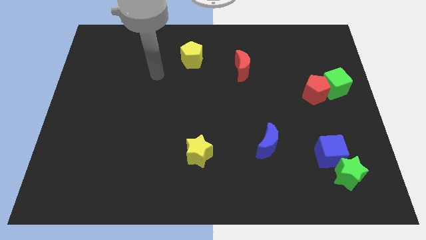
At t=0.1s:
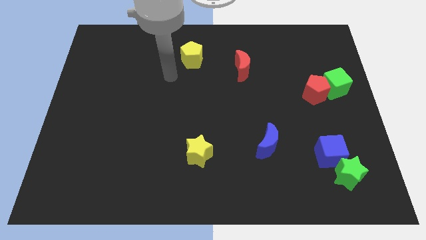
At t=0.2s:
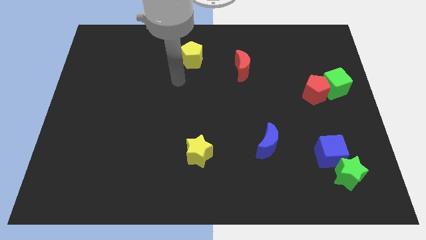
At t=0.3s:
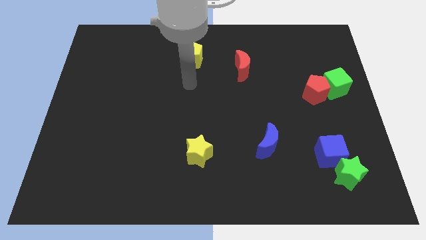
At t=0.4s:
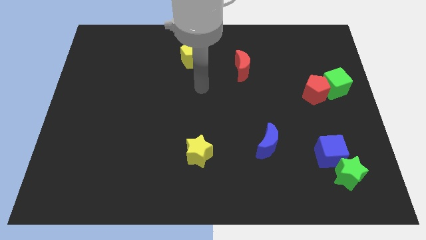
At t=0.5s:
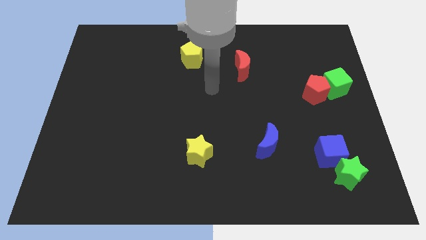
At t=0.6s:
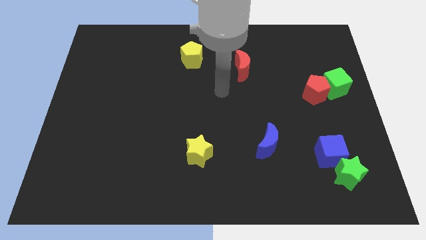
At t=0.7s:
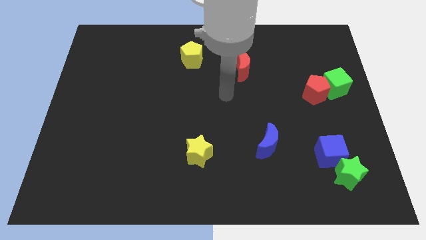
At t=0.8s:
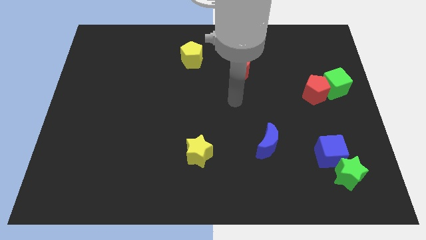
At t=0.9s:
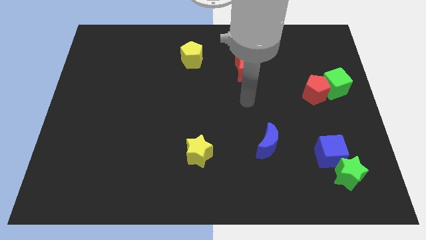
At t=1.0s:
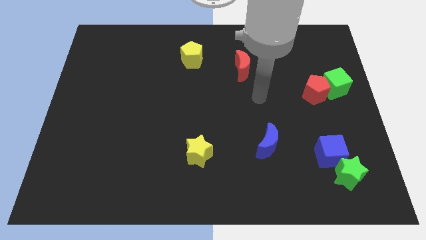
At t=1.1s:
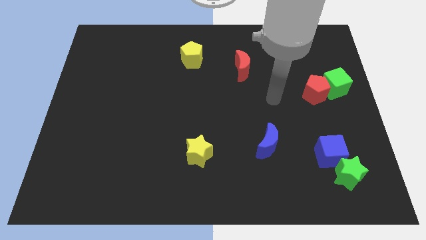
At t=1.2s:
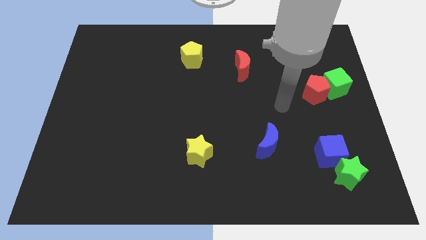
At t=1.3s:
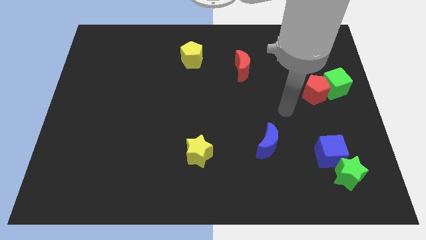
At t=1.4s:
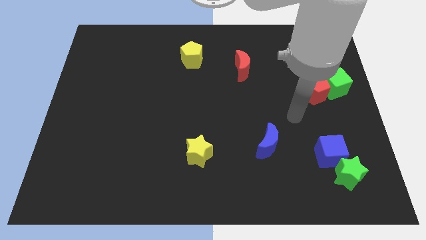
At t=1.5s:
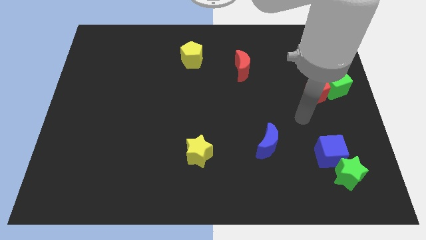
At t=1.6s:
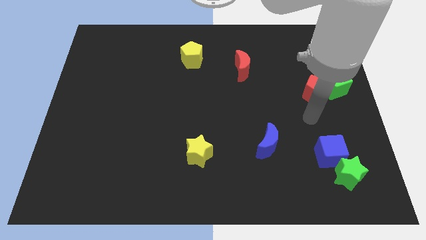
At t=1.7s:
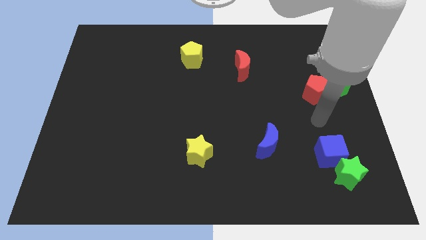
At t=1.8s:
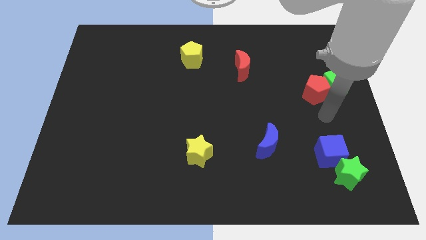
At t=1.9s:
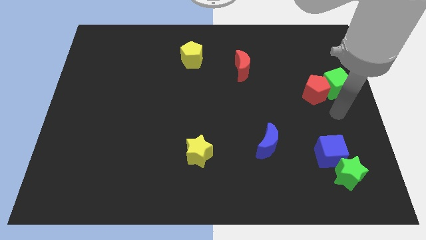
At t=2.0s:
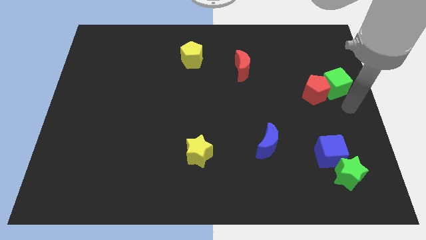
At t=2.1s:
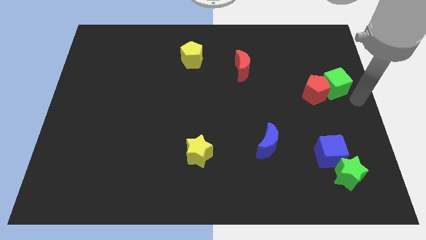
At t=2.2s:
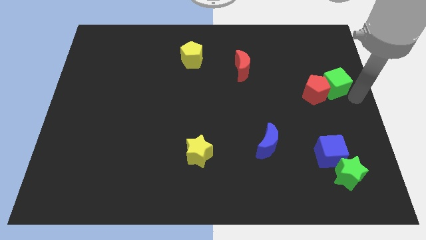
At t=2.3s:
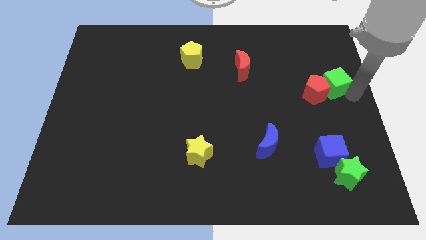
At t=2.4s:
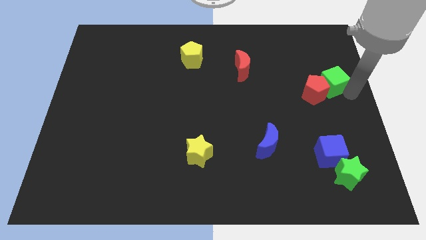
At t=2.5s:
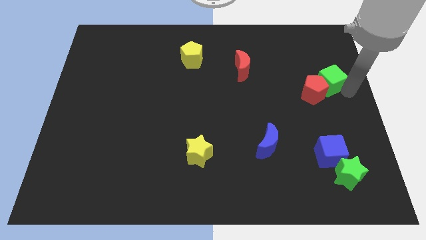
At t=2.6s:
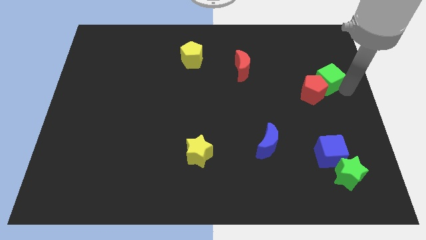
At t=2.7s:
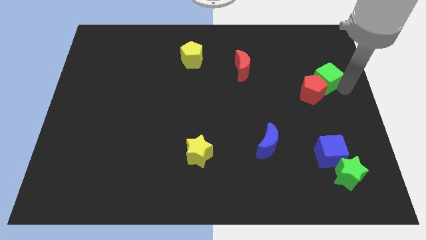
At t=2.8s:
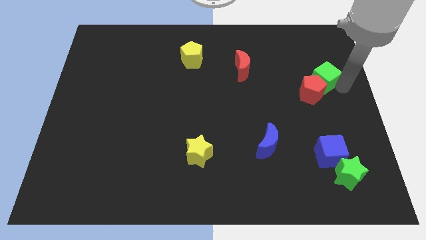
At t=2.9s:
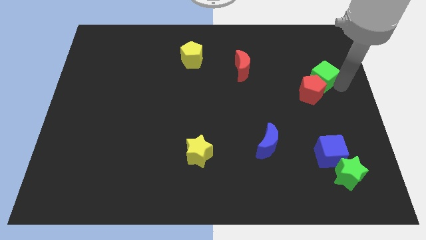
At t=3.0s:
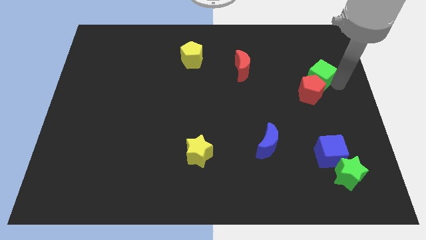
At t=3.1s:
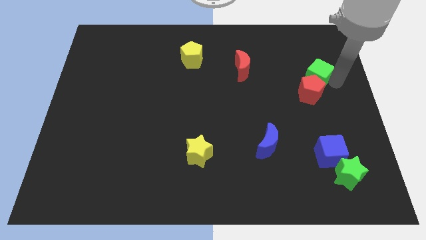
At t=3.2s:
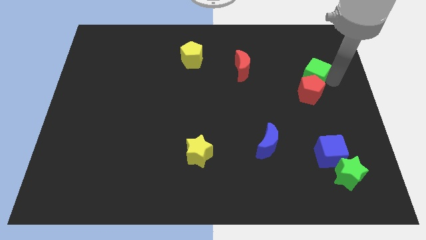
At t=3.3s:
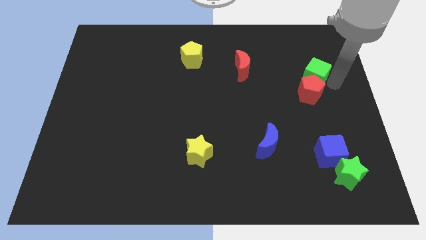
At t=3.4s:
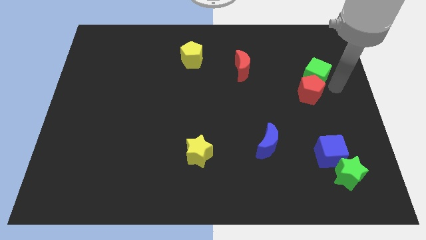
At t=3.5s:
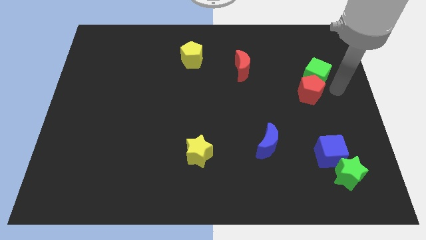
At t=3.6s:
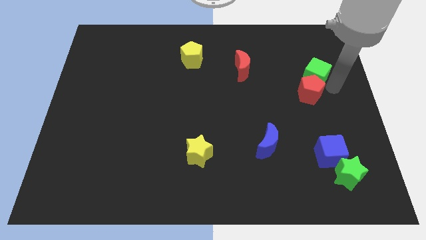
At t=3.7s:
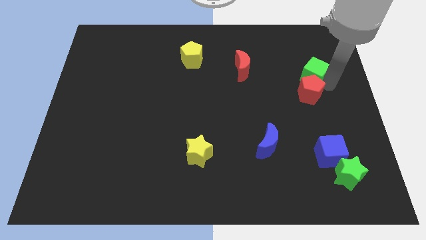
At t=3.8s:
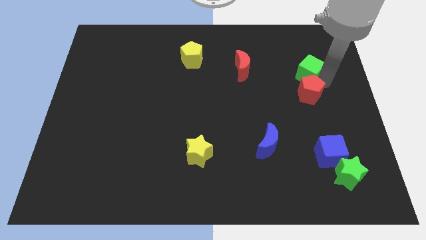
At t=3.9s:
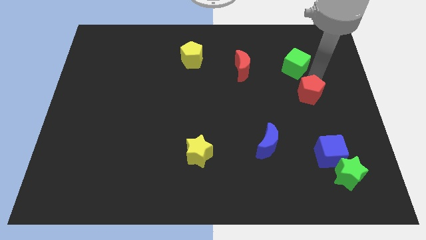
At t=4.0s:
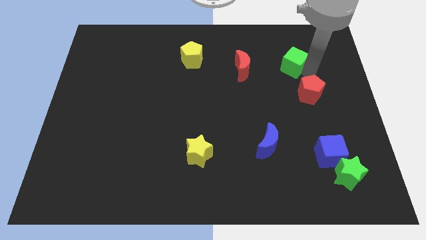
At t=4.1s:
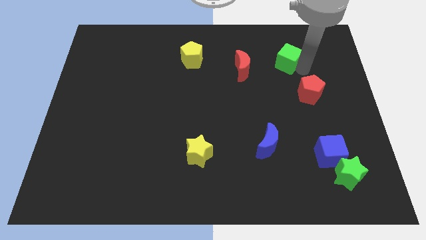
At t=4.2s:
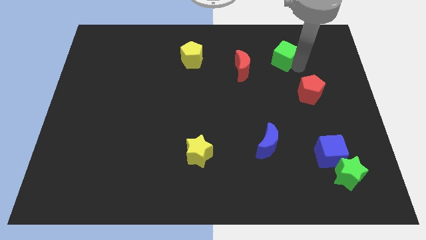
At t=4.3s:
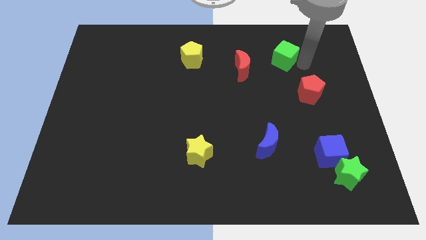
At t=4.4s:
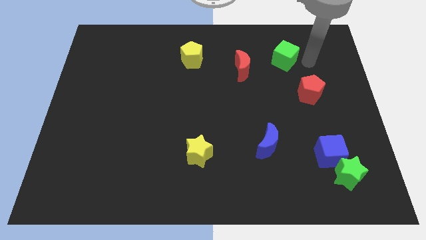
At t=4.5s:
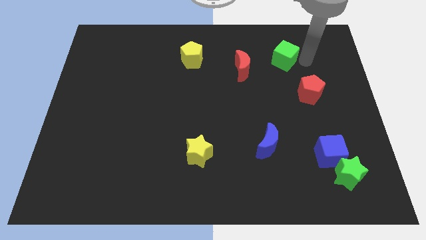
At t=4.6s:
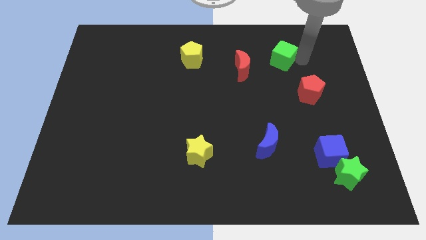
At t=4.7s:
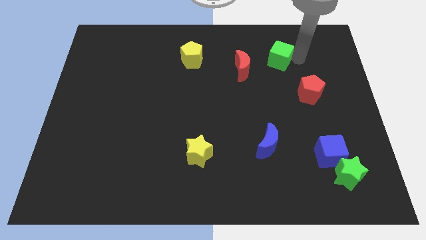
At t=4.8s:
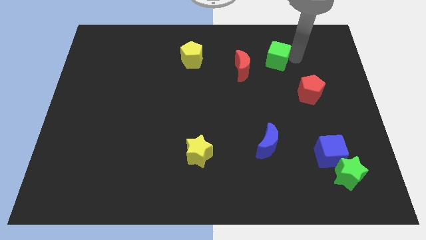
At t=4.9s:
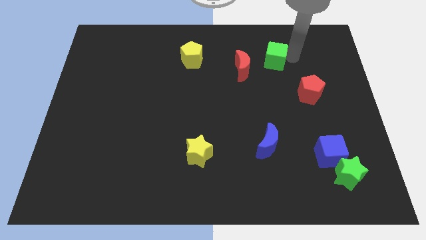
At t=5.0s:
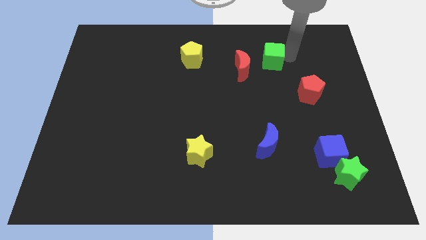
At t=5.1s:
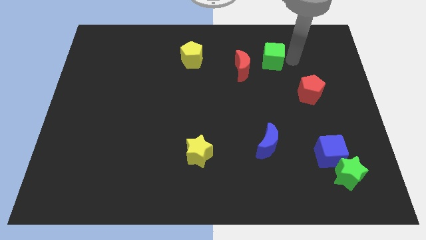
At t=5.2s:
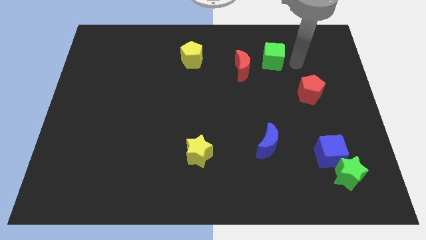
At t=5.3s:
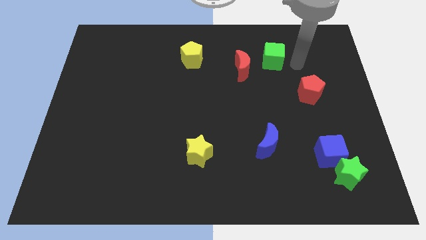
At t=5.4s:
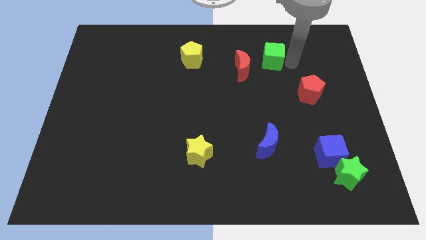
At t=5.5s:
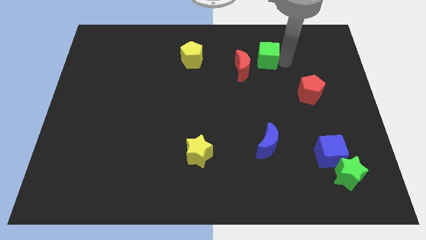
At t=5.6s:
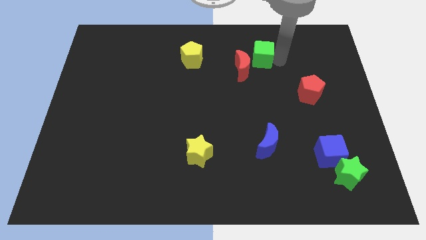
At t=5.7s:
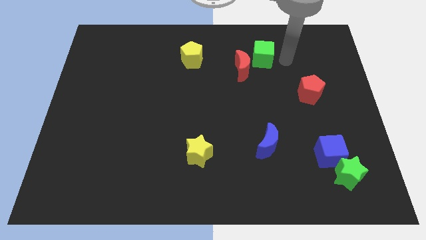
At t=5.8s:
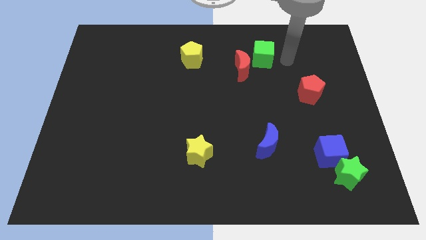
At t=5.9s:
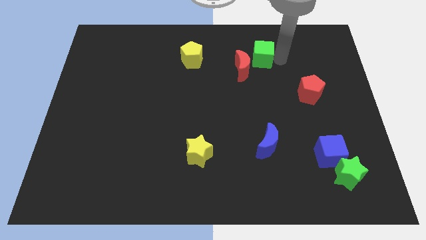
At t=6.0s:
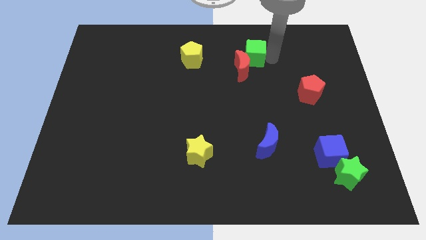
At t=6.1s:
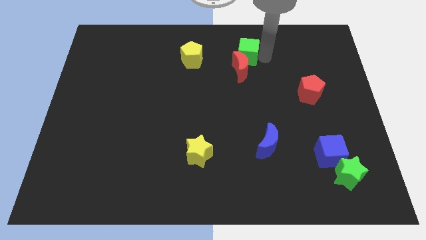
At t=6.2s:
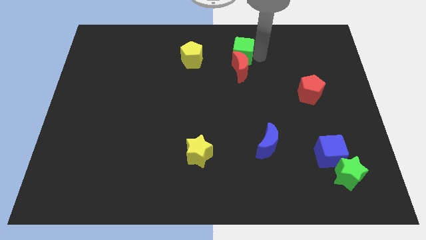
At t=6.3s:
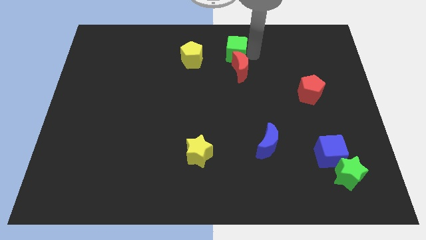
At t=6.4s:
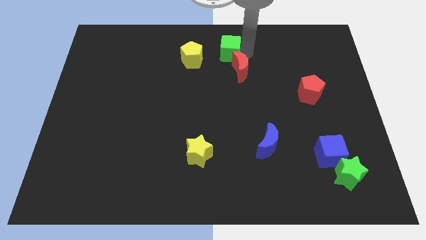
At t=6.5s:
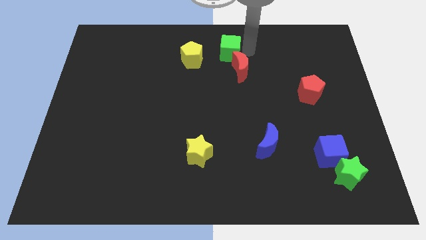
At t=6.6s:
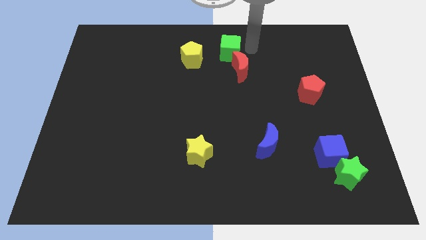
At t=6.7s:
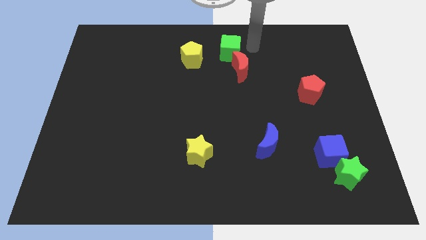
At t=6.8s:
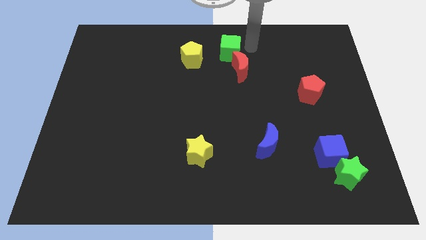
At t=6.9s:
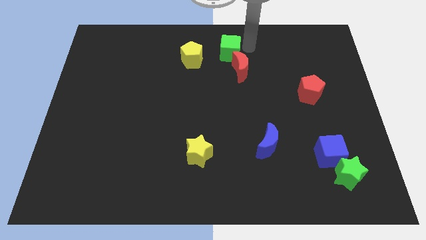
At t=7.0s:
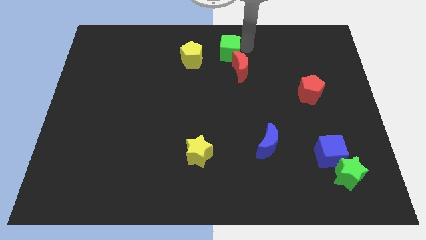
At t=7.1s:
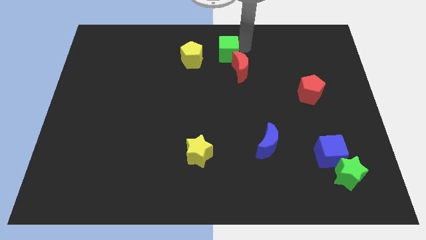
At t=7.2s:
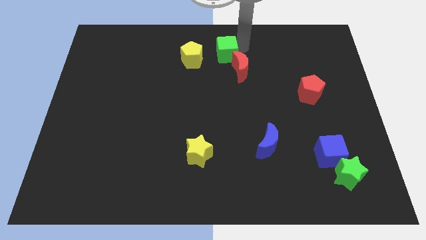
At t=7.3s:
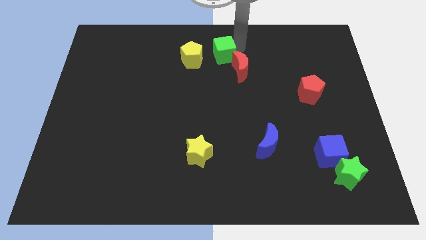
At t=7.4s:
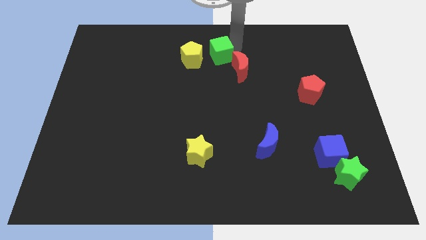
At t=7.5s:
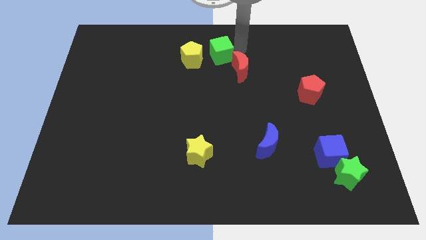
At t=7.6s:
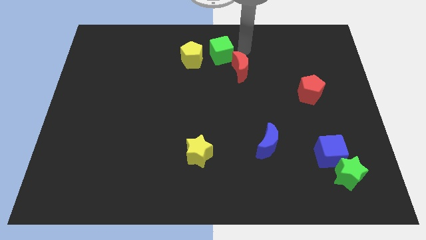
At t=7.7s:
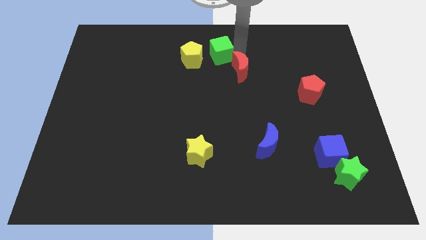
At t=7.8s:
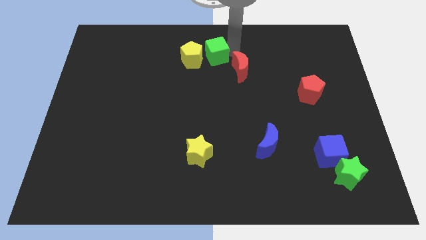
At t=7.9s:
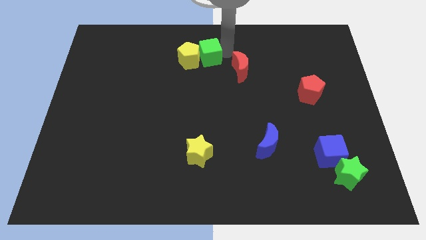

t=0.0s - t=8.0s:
slide the green cube towards the yellow pentagon

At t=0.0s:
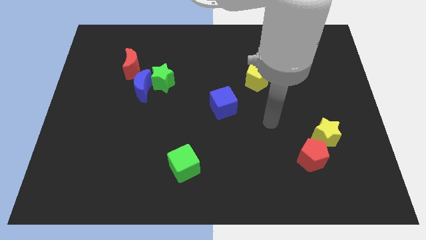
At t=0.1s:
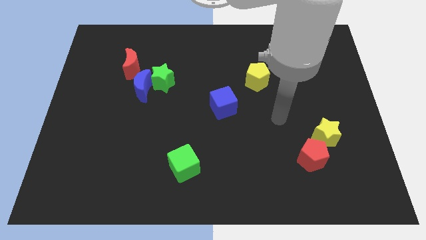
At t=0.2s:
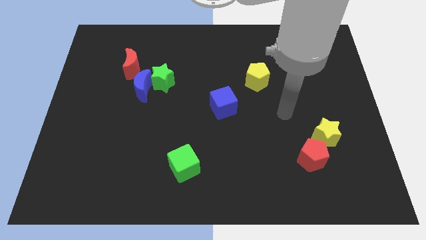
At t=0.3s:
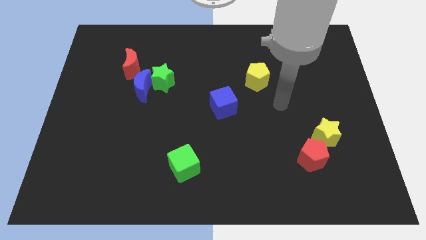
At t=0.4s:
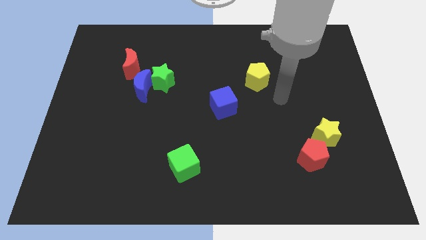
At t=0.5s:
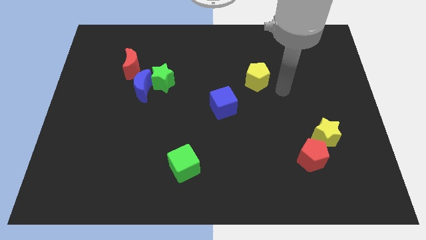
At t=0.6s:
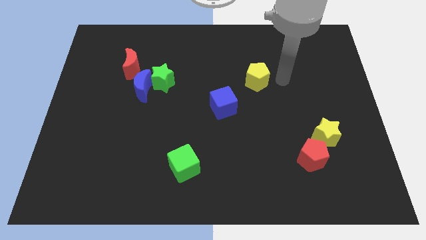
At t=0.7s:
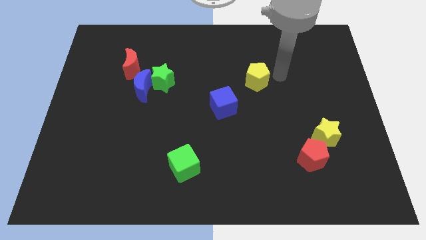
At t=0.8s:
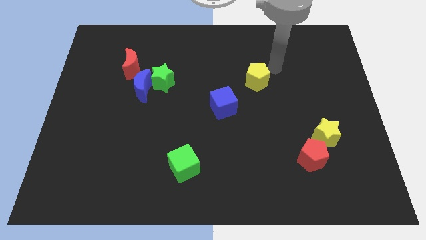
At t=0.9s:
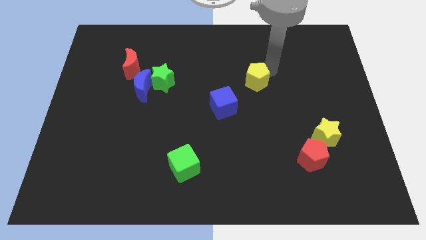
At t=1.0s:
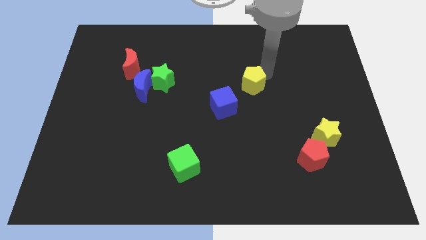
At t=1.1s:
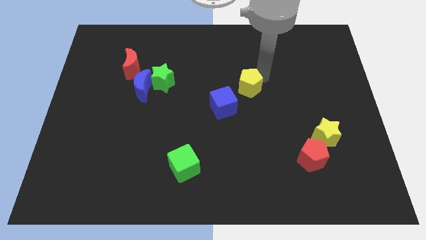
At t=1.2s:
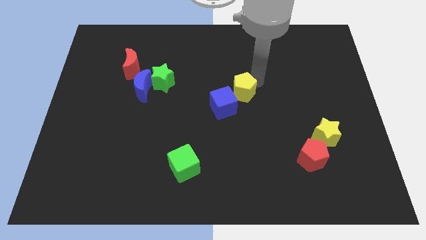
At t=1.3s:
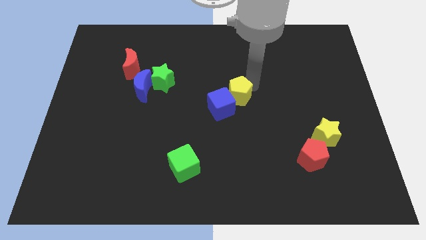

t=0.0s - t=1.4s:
slide the yellow pentagon towards the blue cube
